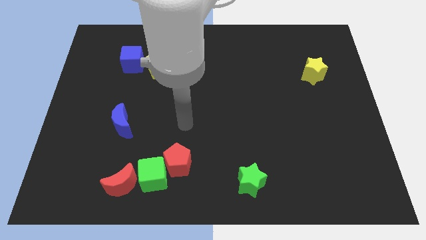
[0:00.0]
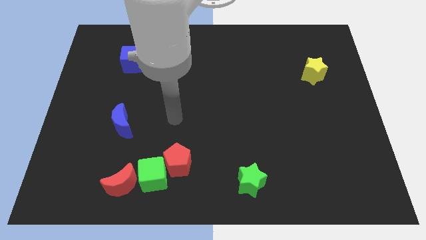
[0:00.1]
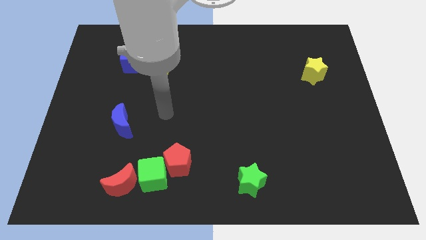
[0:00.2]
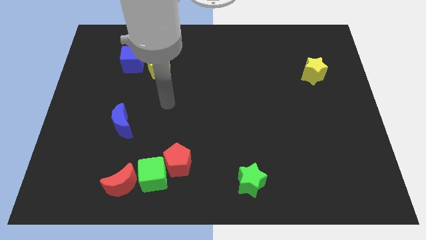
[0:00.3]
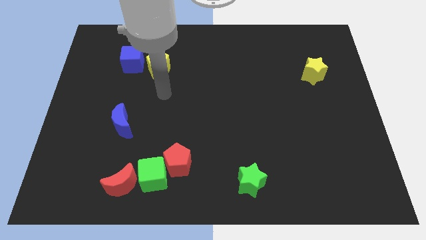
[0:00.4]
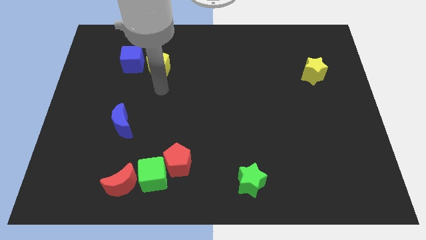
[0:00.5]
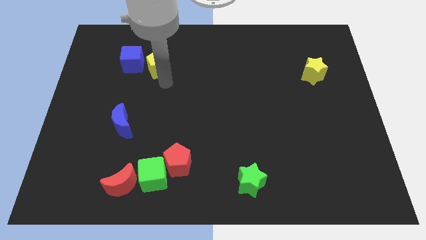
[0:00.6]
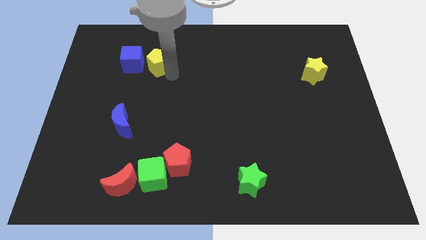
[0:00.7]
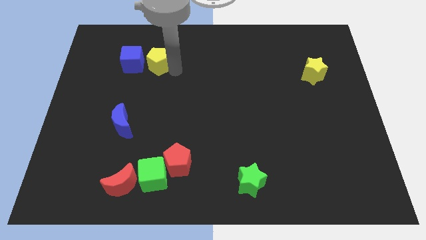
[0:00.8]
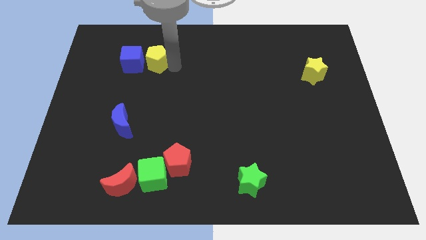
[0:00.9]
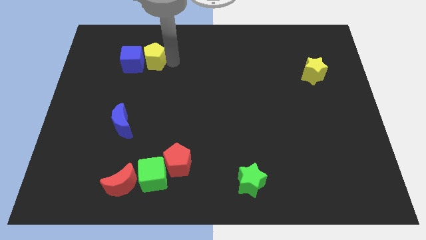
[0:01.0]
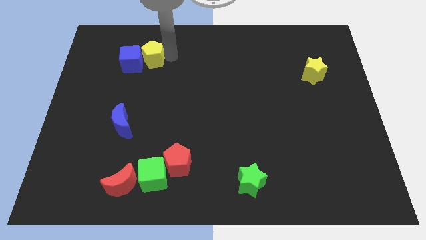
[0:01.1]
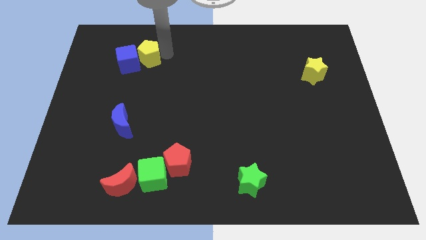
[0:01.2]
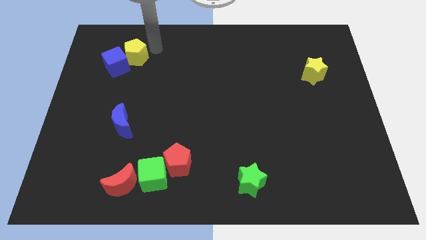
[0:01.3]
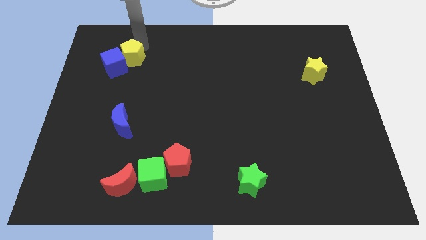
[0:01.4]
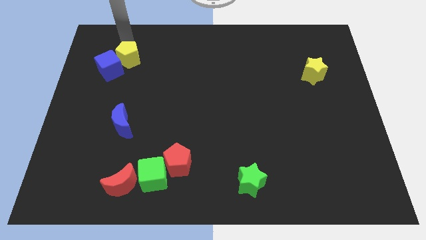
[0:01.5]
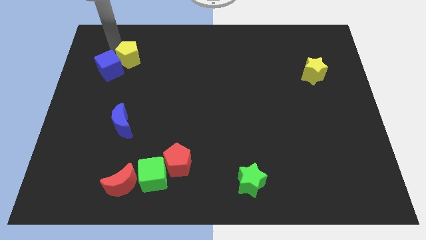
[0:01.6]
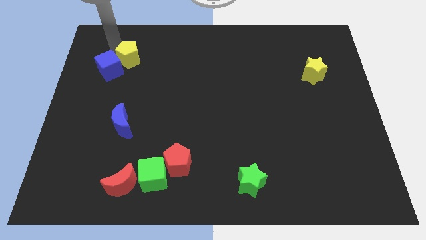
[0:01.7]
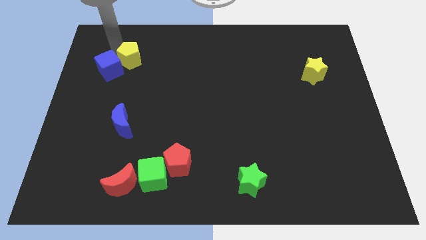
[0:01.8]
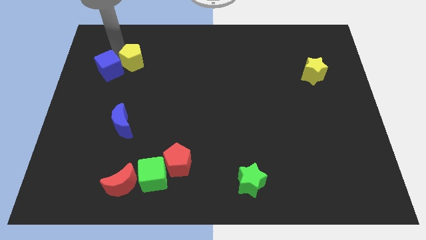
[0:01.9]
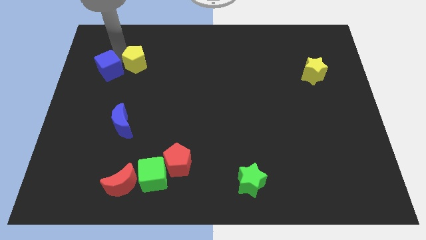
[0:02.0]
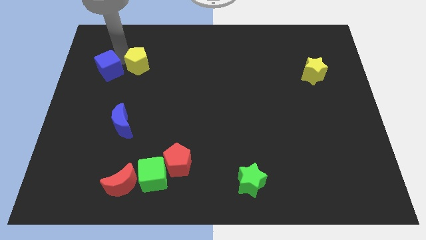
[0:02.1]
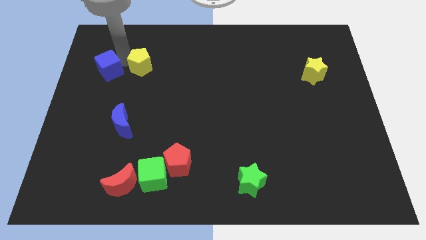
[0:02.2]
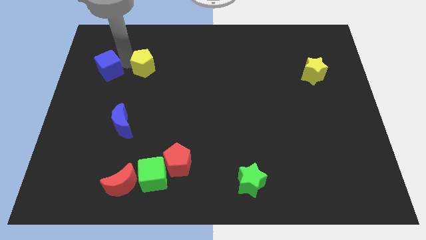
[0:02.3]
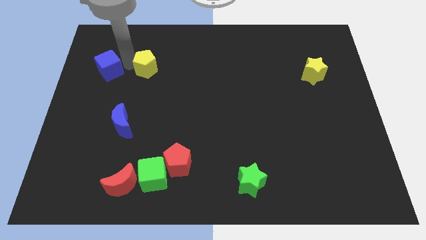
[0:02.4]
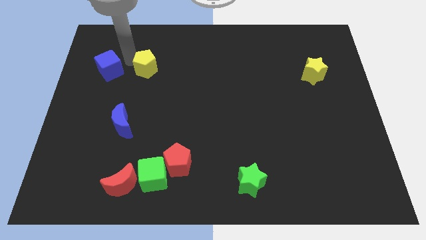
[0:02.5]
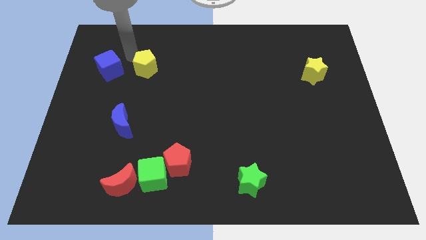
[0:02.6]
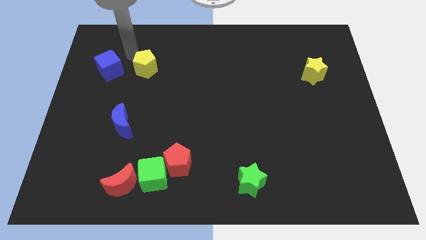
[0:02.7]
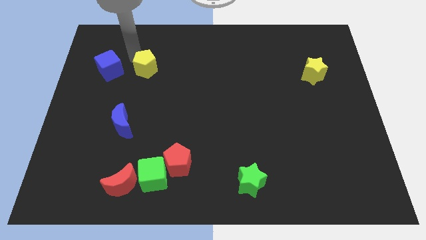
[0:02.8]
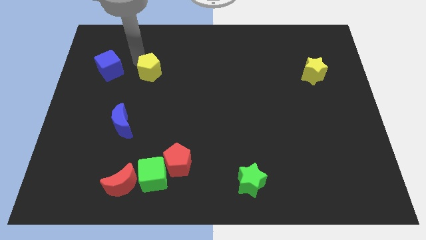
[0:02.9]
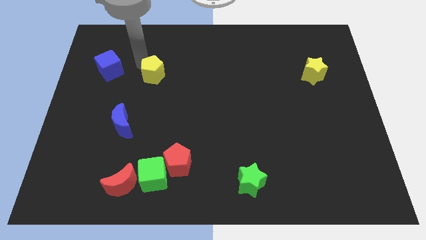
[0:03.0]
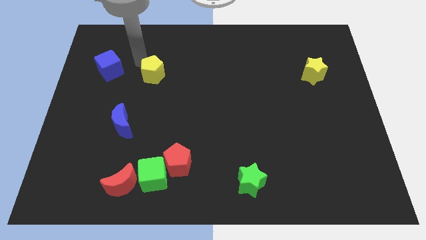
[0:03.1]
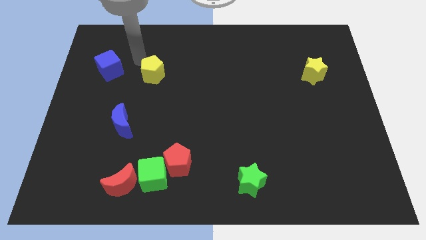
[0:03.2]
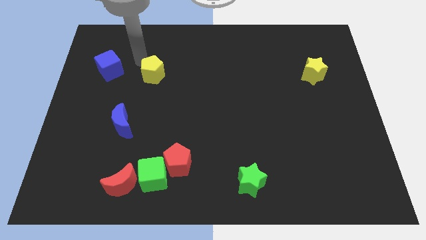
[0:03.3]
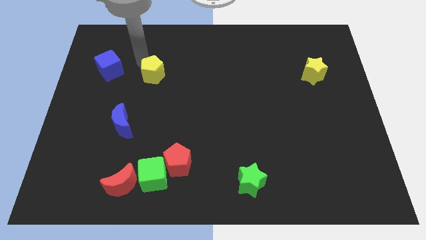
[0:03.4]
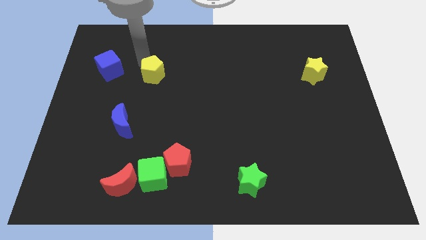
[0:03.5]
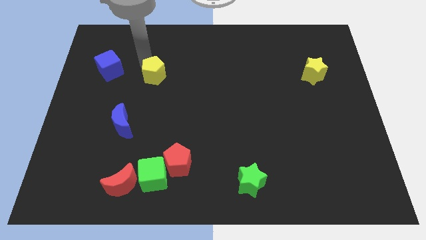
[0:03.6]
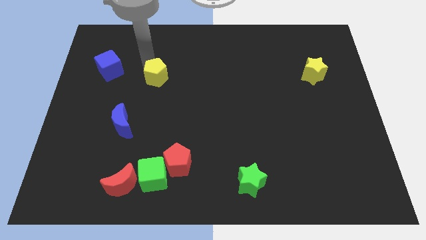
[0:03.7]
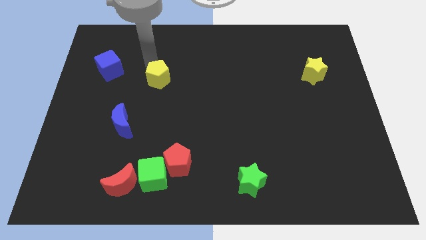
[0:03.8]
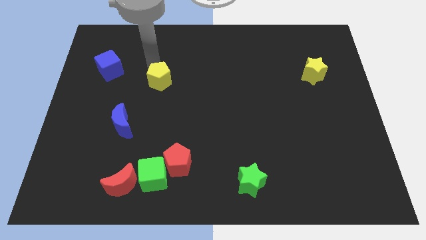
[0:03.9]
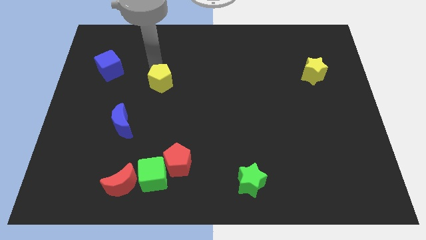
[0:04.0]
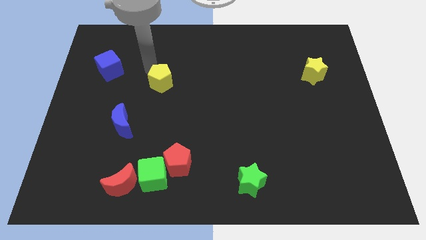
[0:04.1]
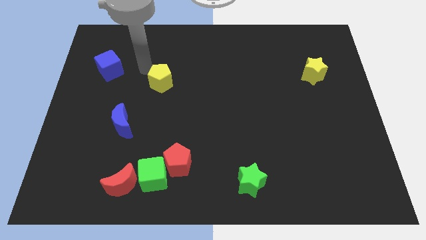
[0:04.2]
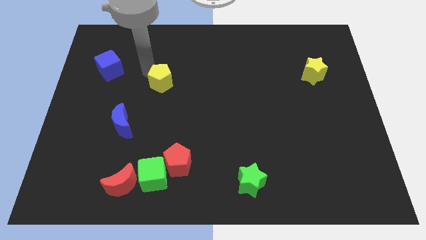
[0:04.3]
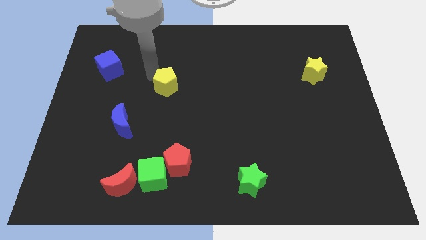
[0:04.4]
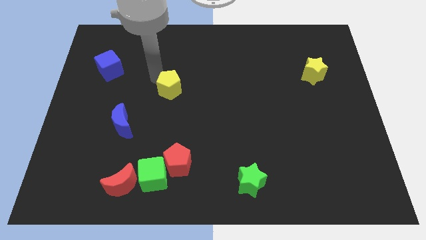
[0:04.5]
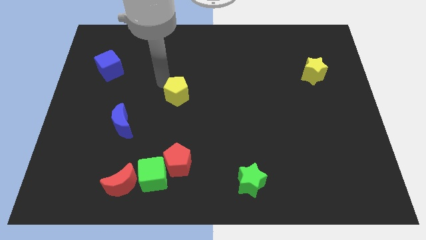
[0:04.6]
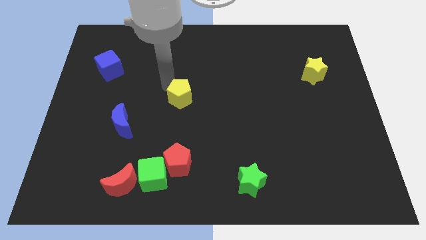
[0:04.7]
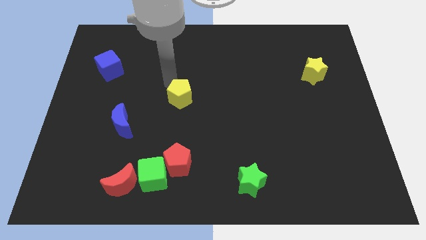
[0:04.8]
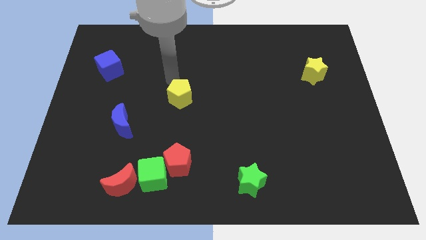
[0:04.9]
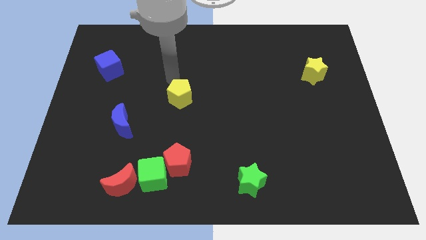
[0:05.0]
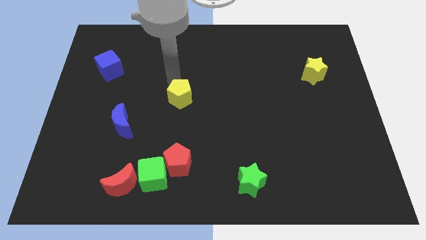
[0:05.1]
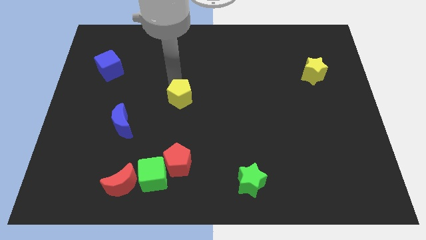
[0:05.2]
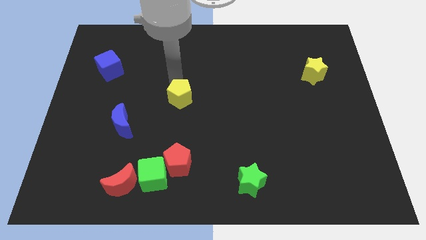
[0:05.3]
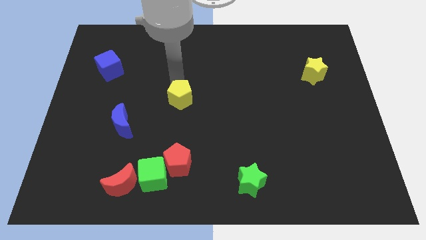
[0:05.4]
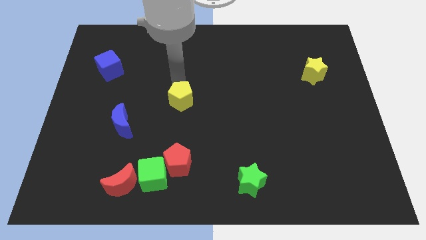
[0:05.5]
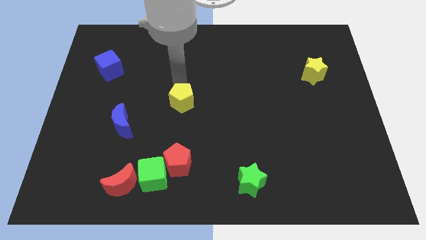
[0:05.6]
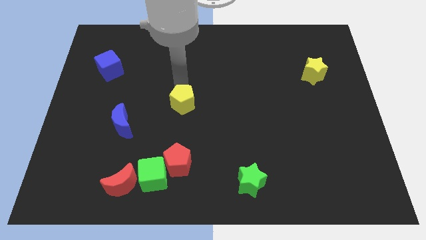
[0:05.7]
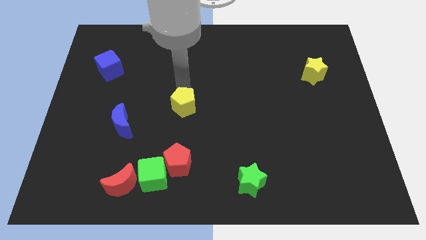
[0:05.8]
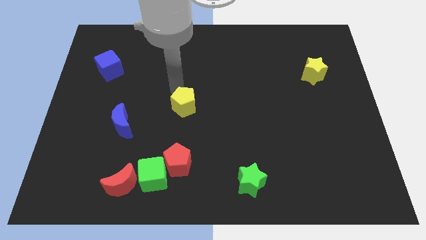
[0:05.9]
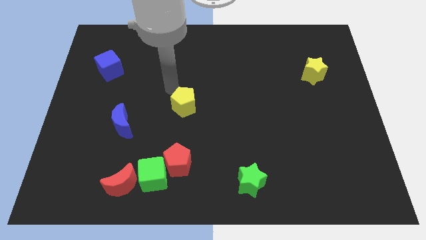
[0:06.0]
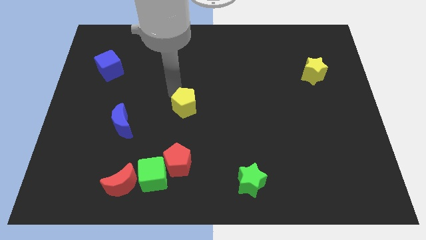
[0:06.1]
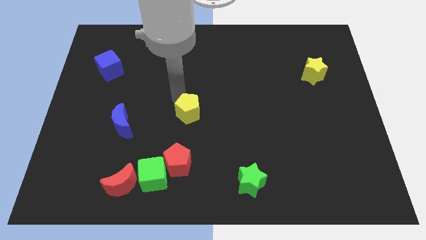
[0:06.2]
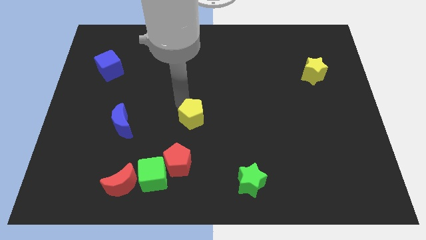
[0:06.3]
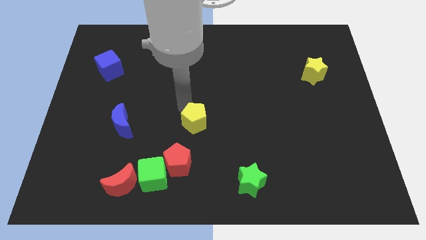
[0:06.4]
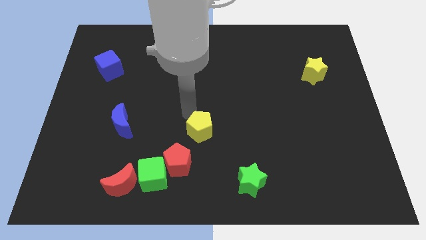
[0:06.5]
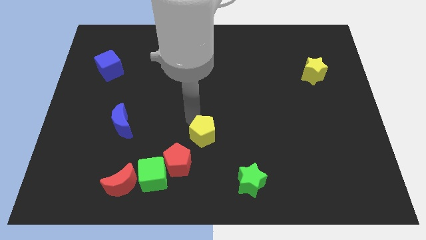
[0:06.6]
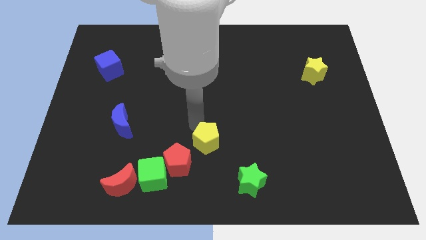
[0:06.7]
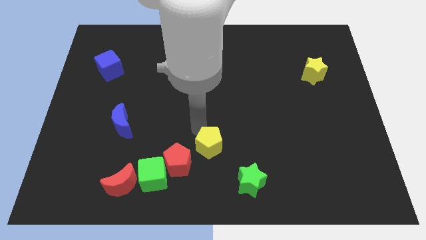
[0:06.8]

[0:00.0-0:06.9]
move the yellow pentagon just right of the red pentagon

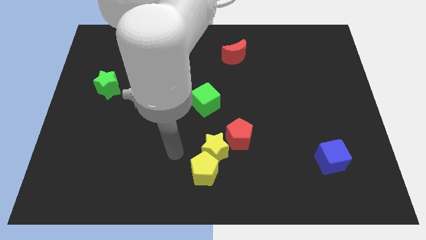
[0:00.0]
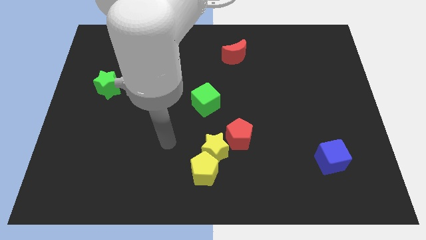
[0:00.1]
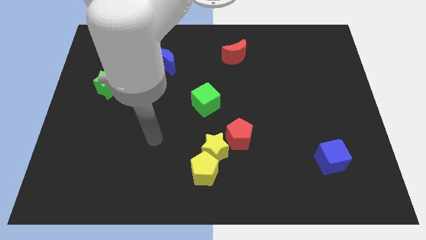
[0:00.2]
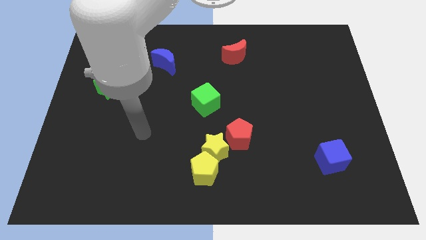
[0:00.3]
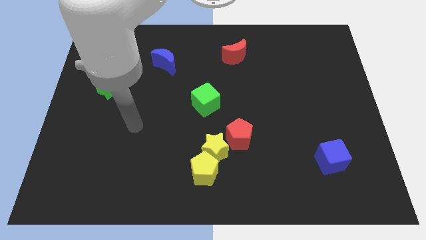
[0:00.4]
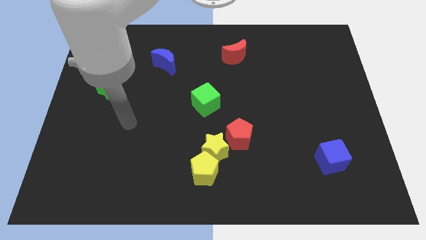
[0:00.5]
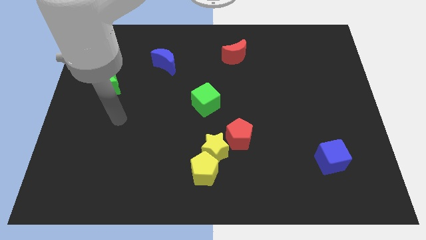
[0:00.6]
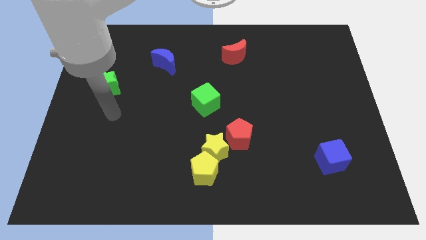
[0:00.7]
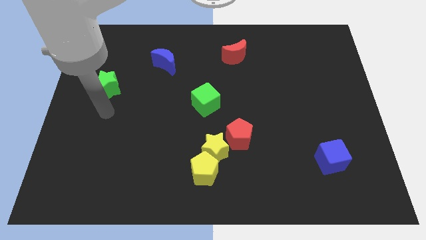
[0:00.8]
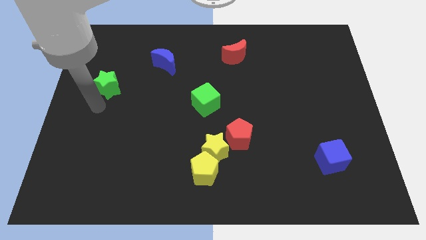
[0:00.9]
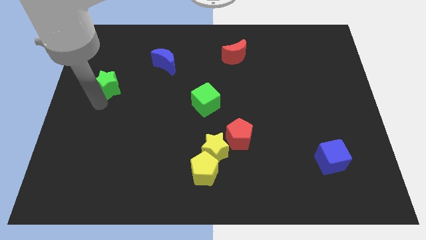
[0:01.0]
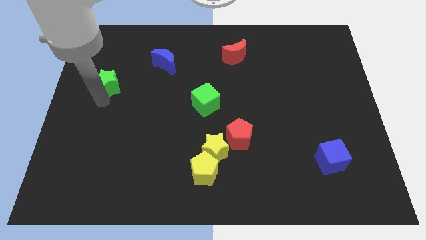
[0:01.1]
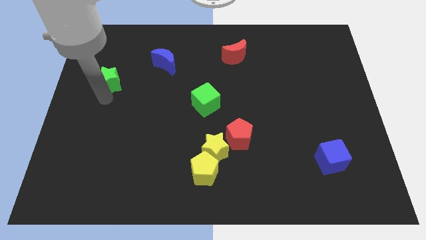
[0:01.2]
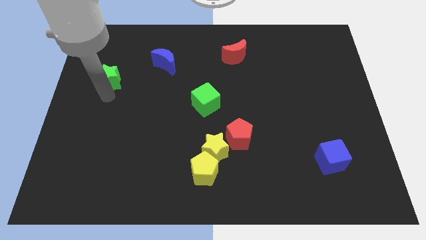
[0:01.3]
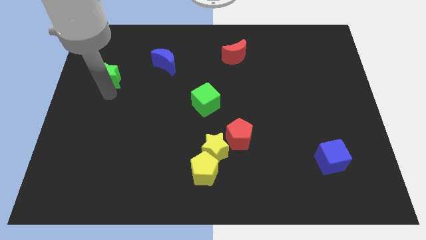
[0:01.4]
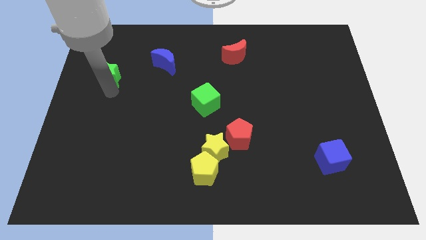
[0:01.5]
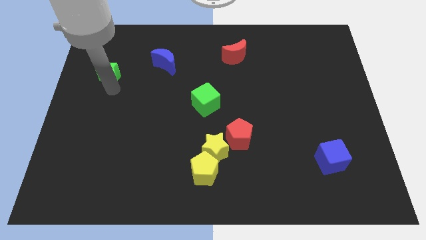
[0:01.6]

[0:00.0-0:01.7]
slide the green star left of the blue moon
